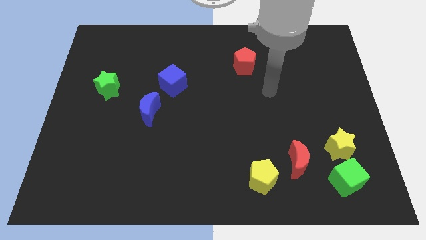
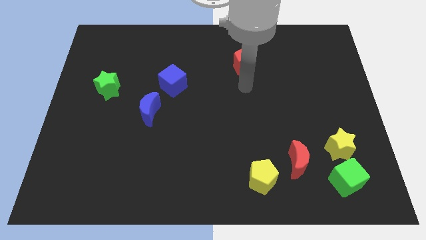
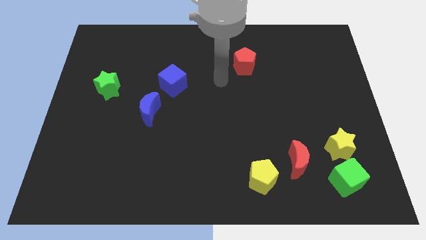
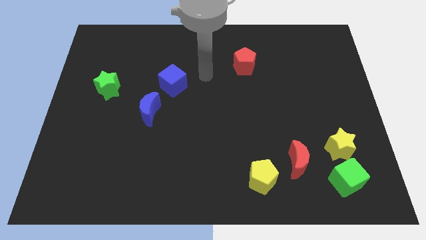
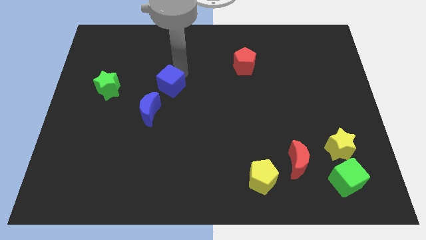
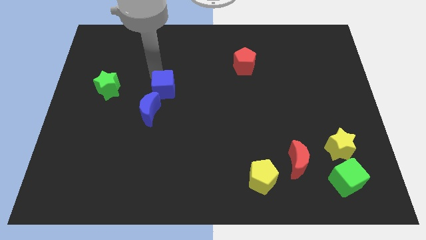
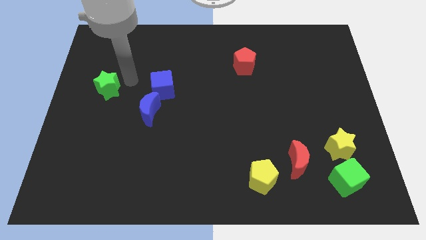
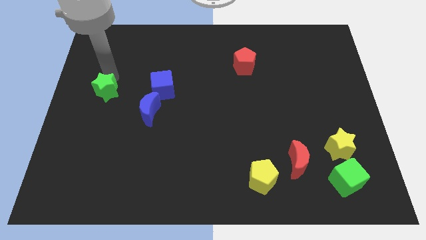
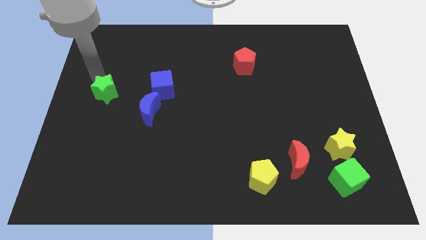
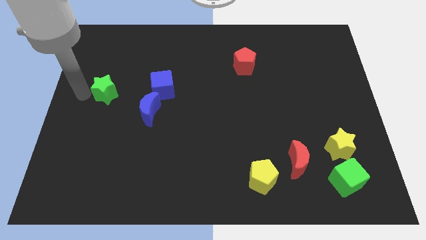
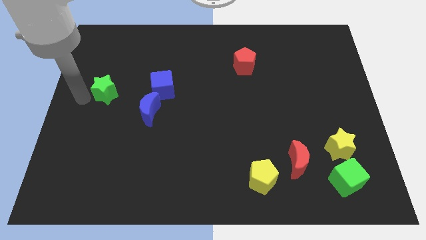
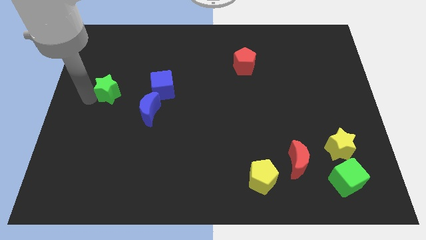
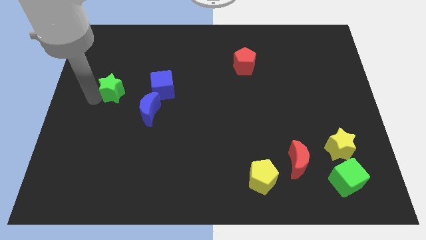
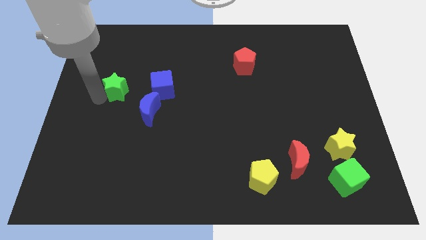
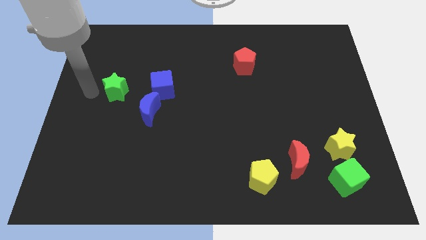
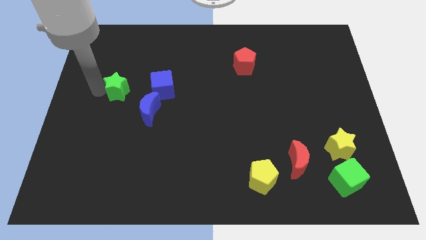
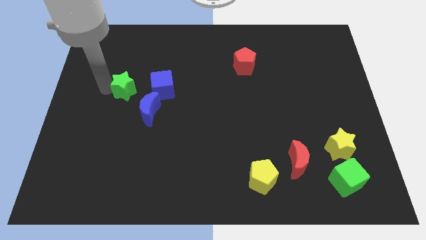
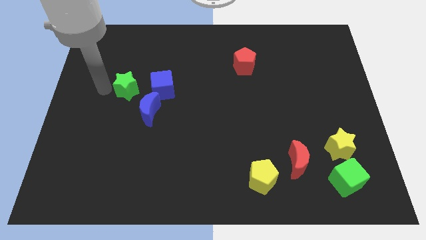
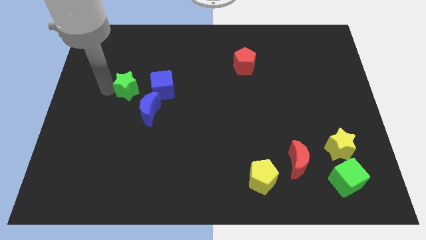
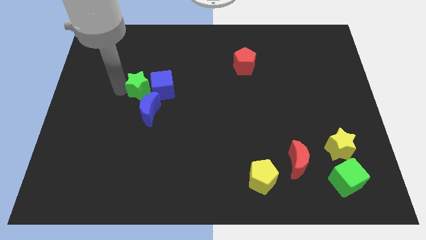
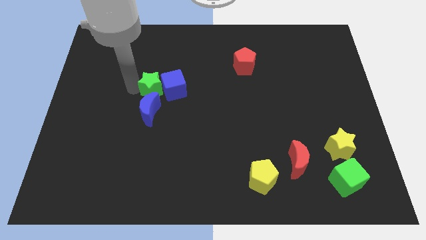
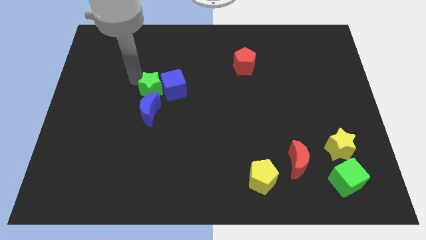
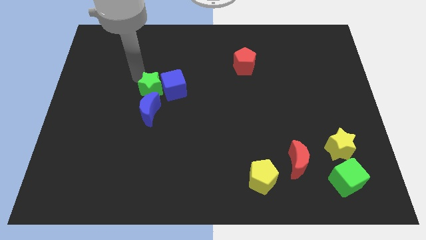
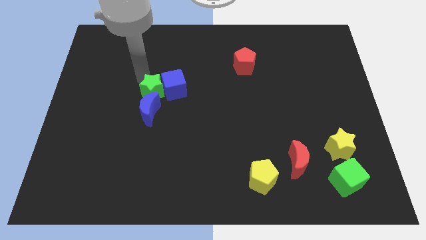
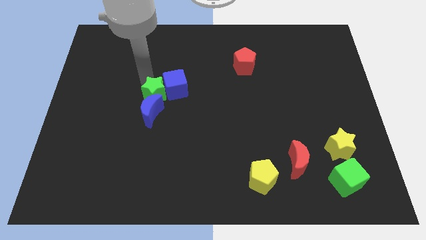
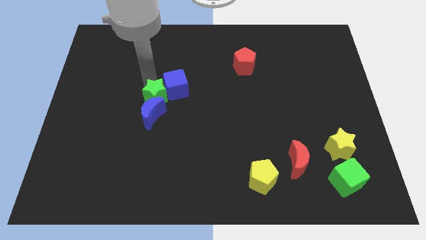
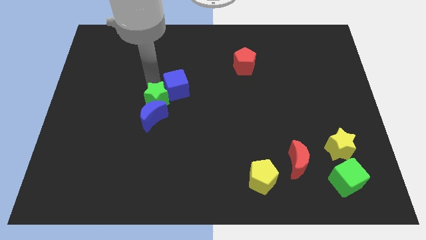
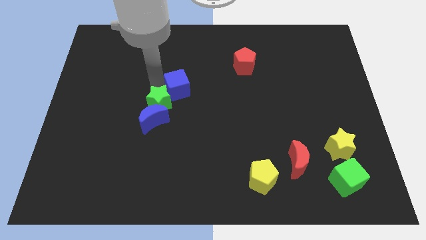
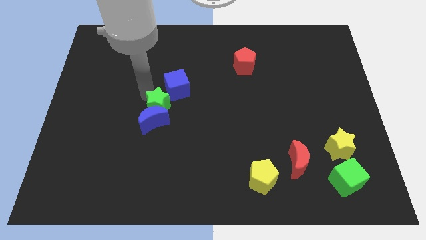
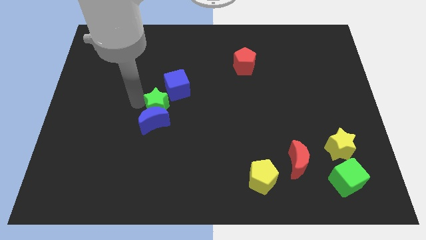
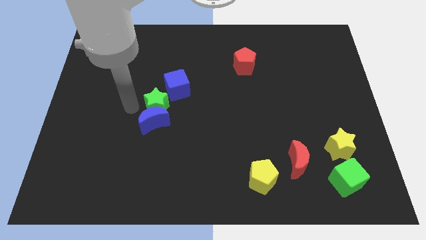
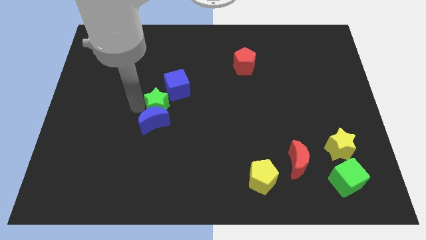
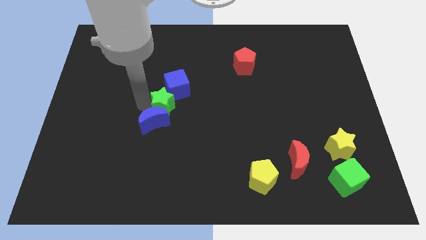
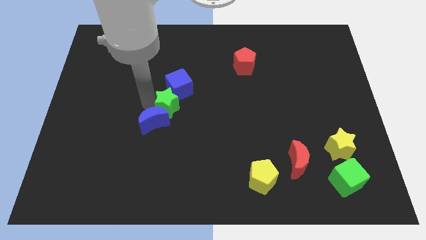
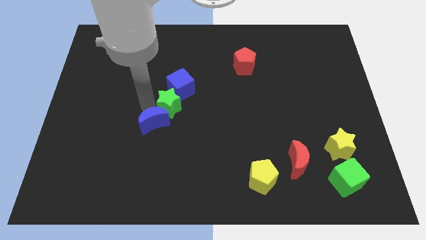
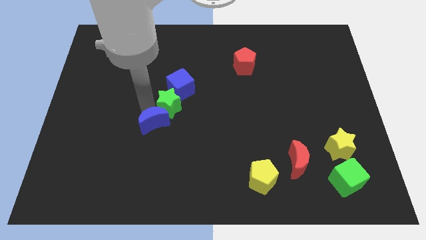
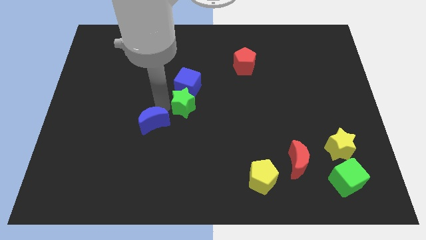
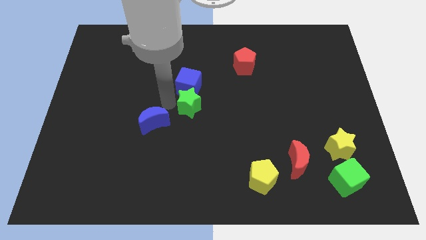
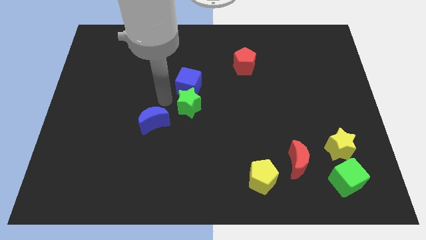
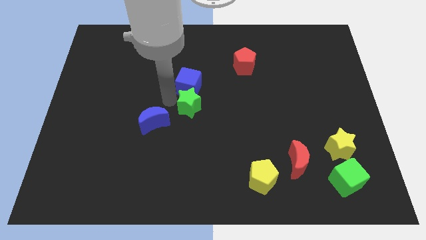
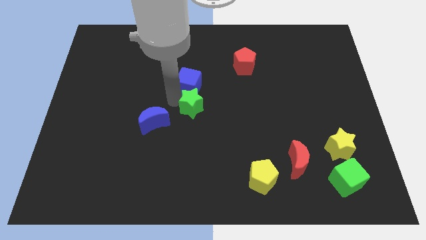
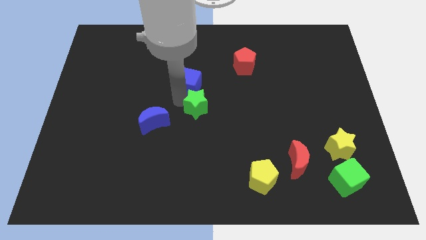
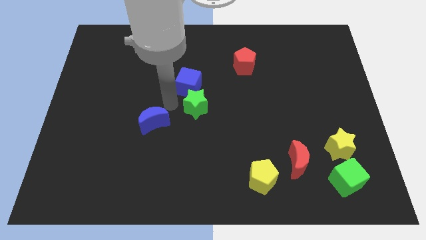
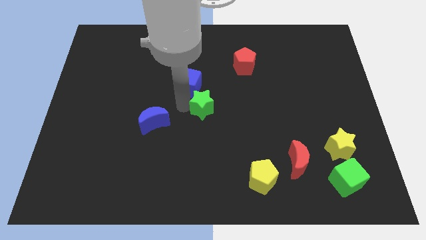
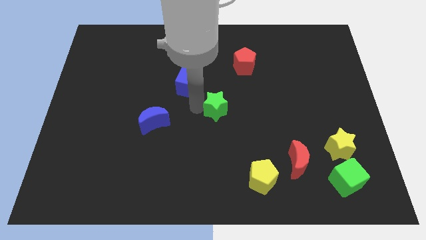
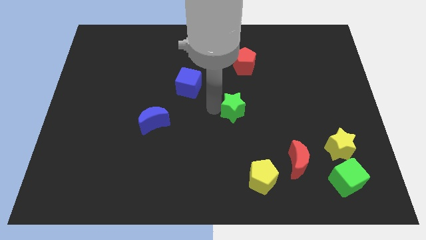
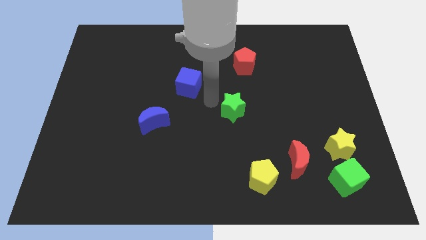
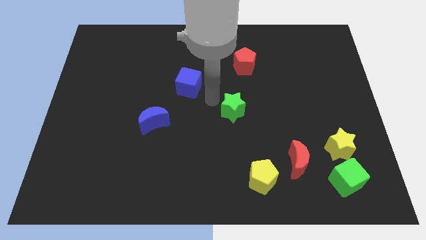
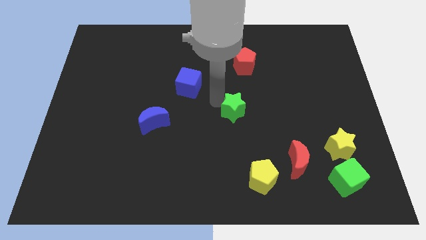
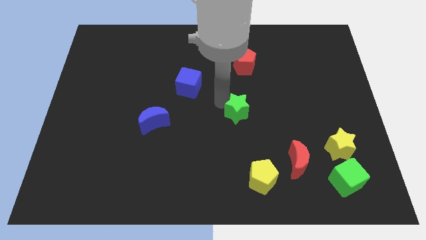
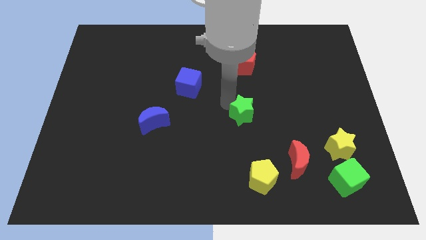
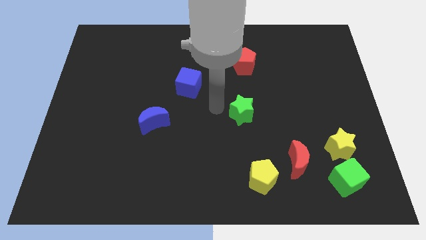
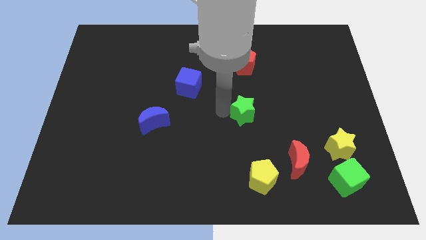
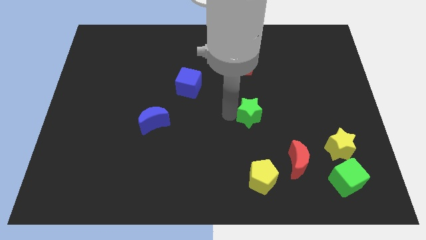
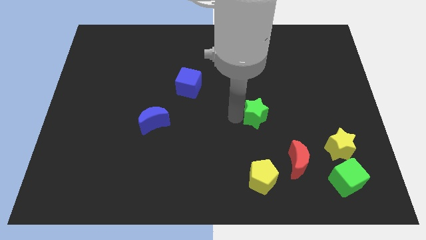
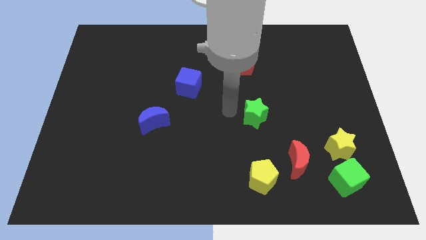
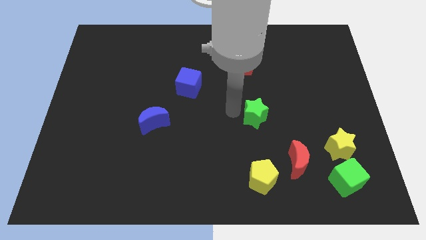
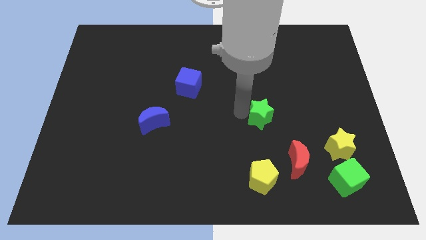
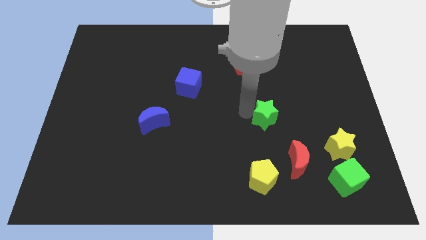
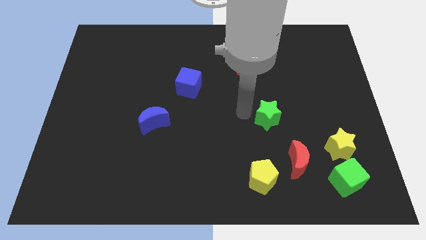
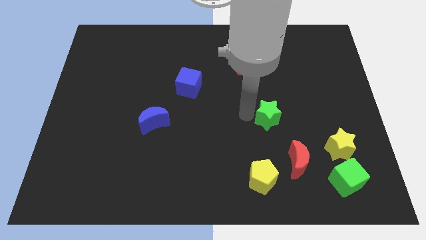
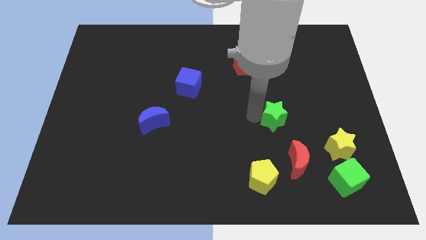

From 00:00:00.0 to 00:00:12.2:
push the green star to the top of the red moon

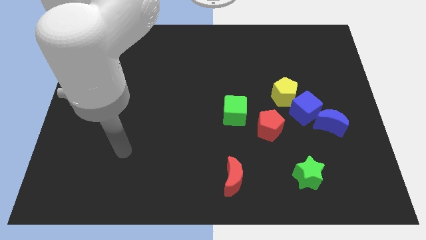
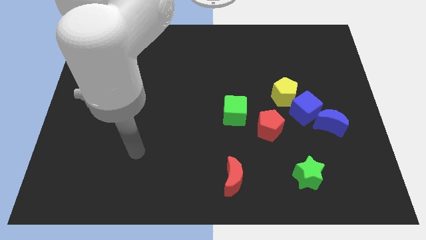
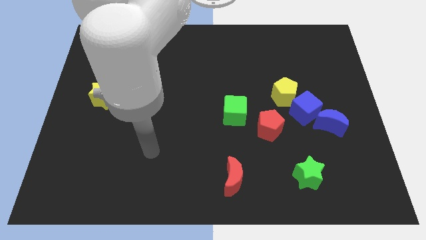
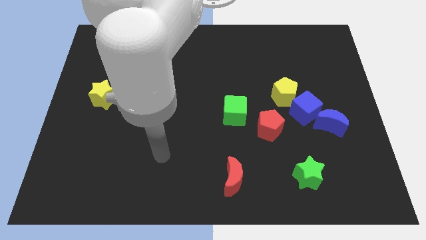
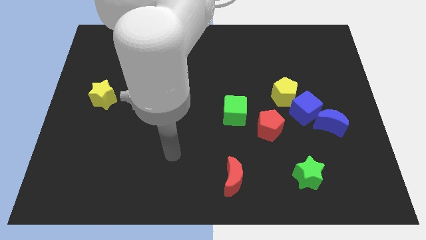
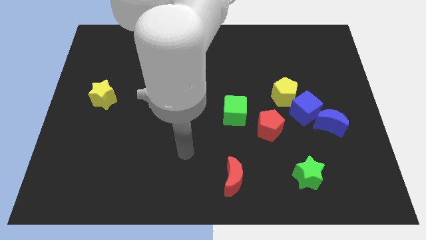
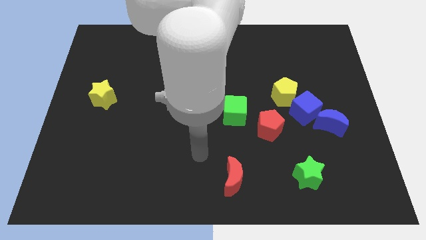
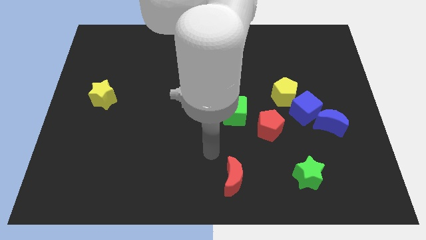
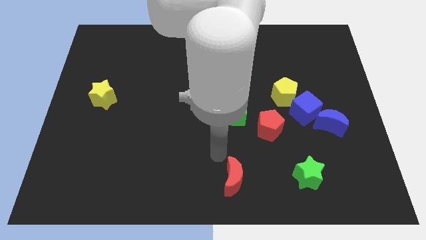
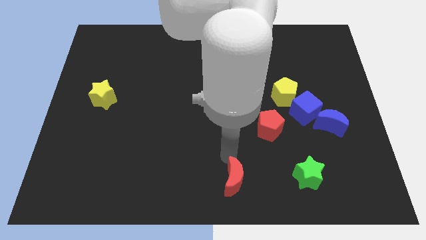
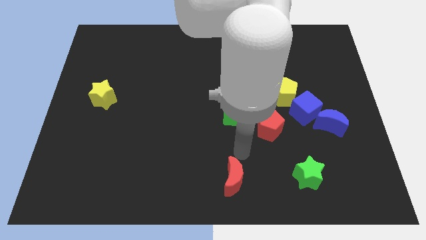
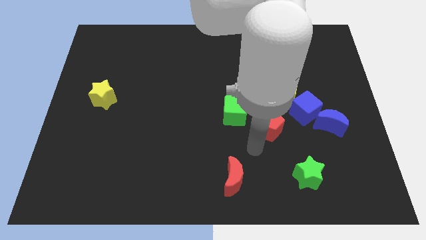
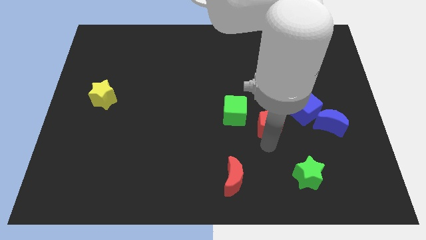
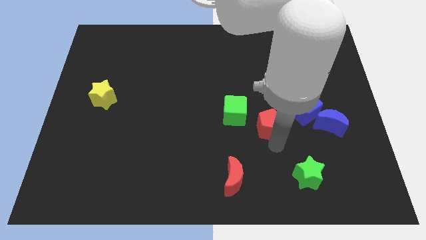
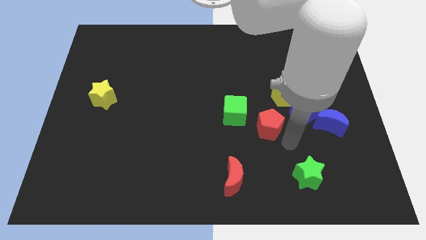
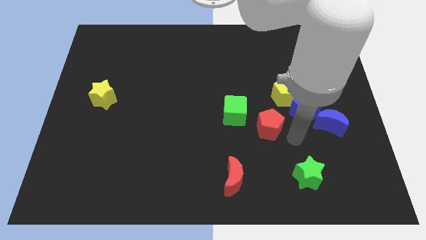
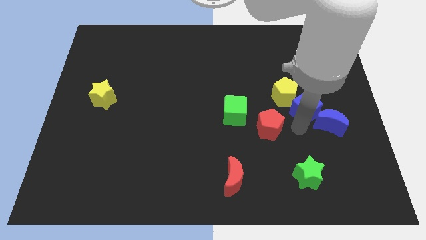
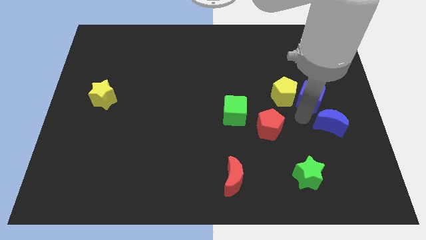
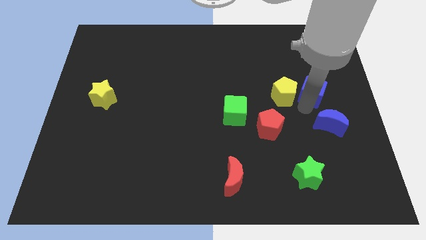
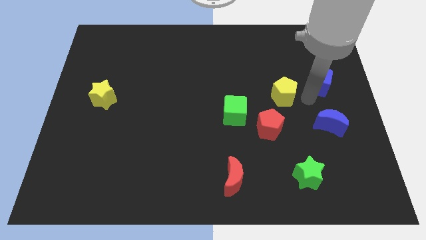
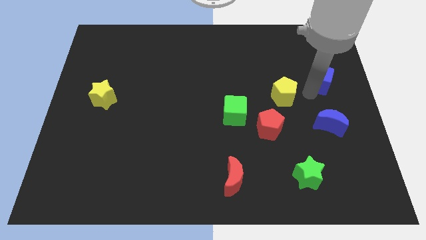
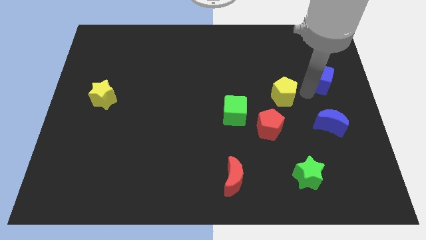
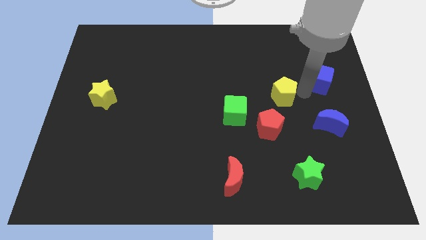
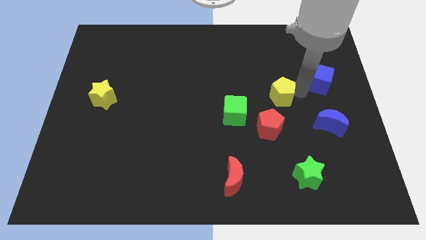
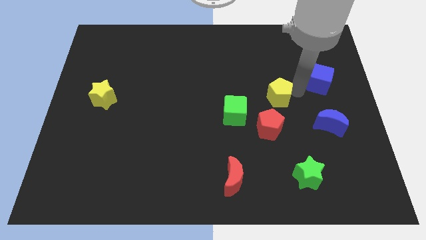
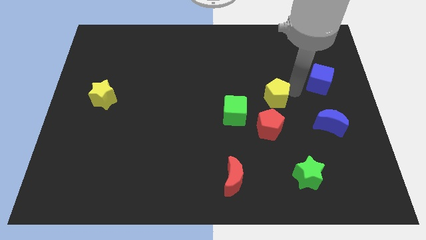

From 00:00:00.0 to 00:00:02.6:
move the yellow pentagon to the top right side of the green cube
